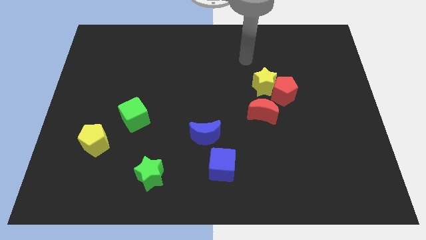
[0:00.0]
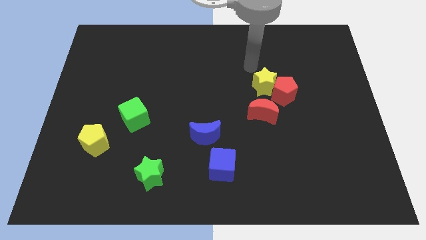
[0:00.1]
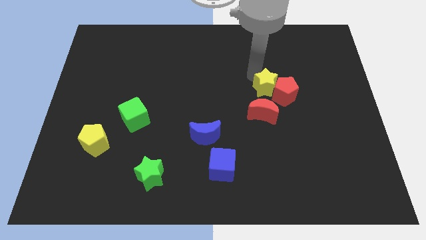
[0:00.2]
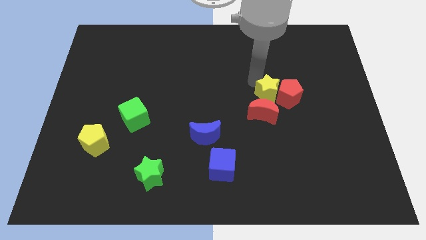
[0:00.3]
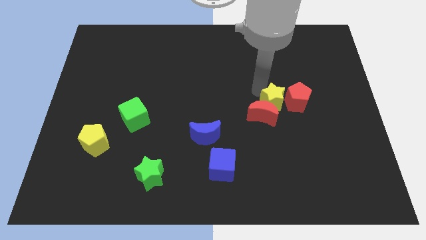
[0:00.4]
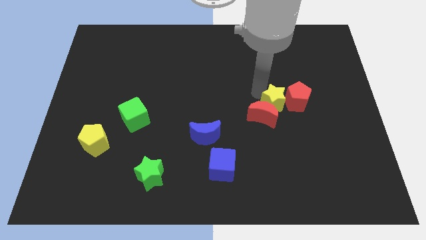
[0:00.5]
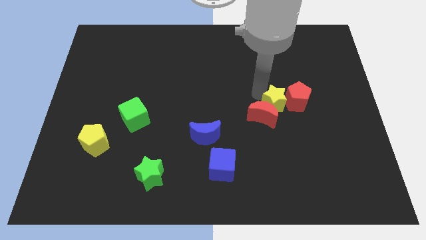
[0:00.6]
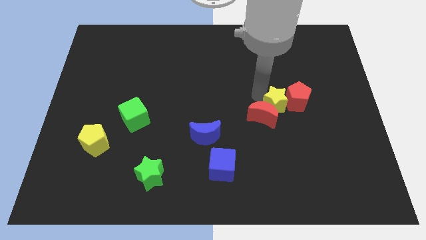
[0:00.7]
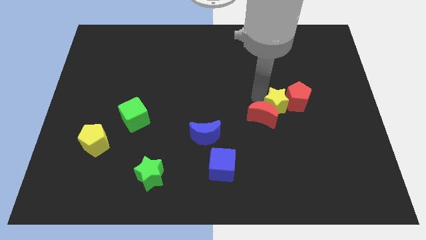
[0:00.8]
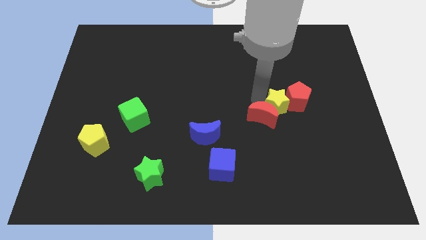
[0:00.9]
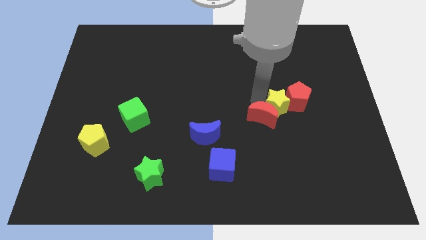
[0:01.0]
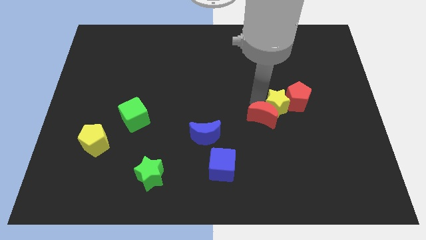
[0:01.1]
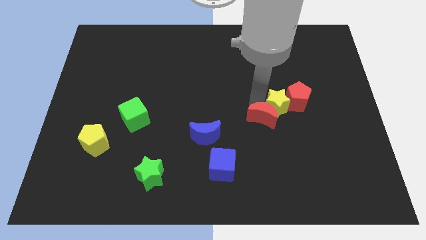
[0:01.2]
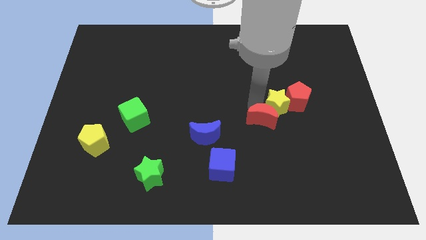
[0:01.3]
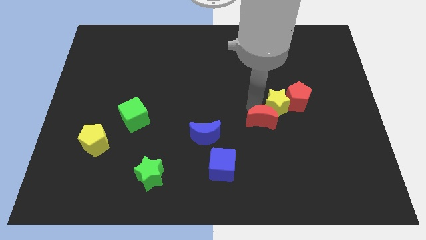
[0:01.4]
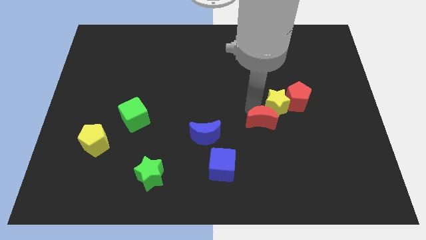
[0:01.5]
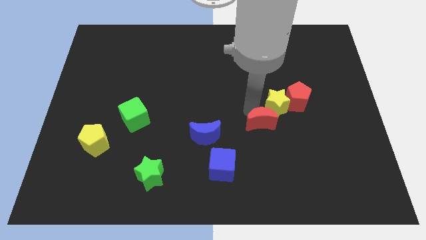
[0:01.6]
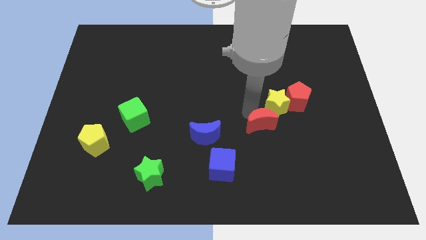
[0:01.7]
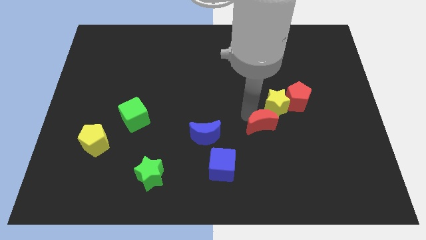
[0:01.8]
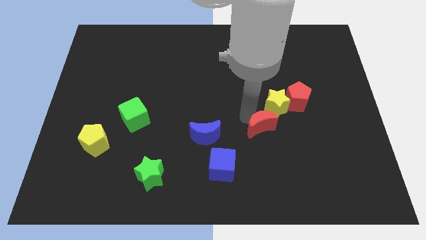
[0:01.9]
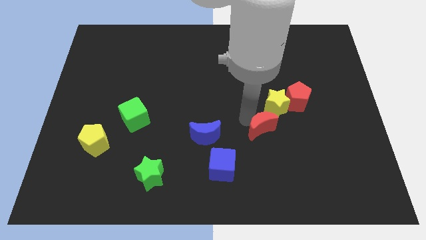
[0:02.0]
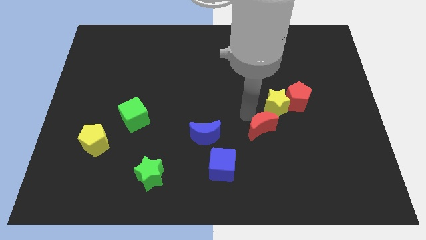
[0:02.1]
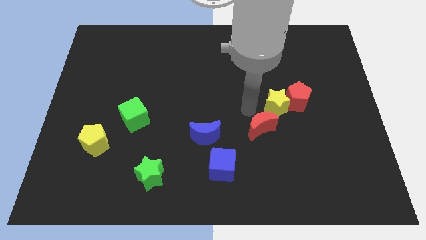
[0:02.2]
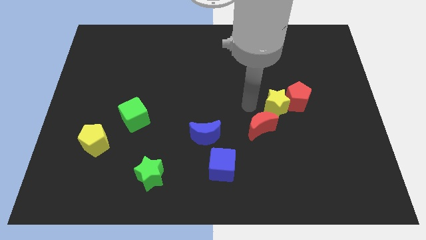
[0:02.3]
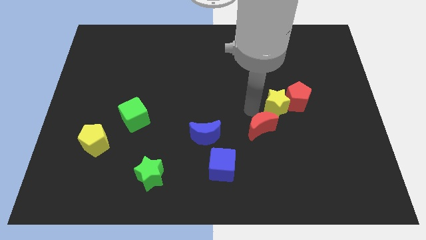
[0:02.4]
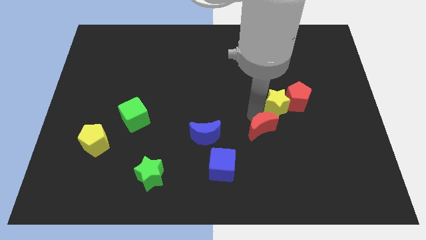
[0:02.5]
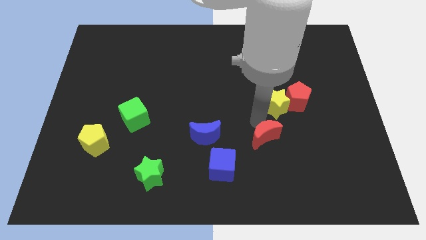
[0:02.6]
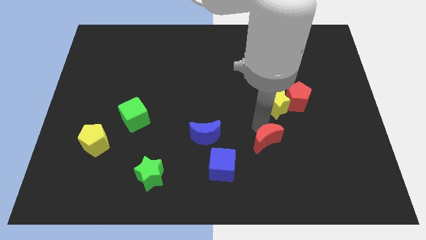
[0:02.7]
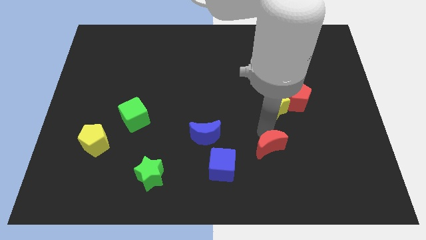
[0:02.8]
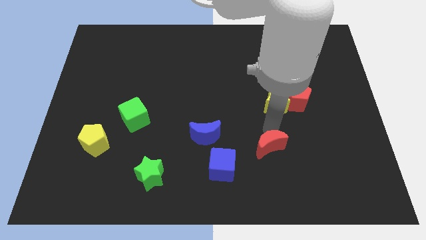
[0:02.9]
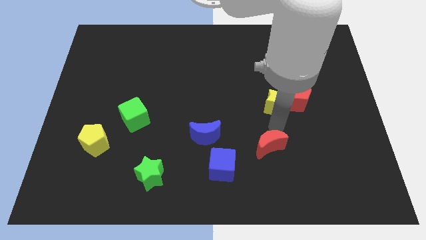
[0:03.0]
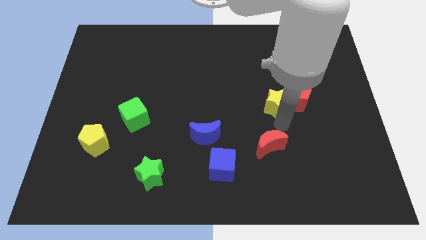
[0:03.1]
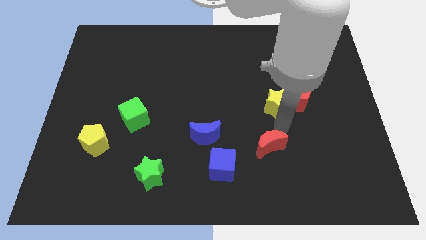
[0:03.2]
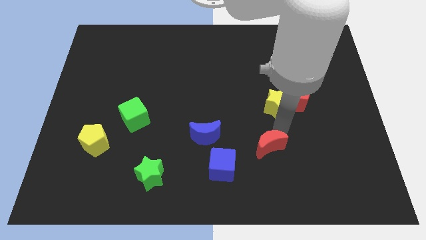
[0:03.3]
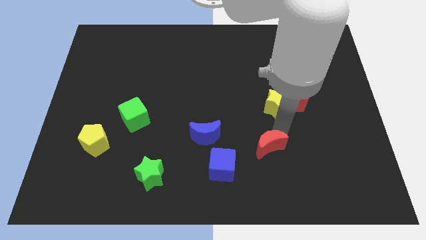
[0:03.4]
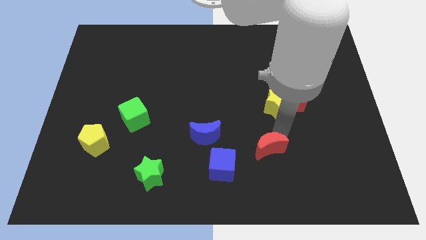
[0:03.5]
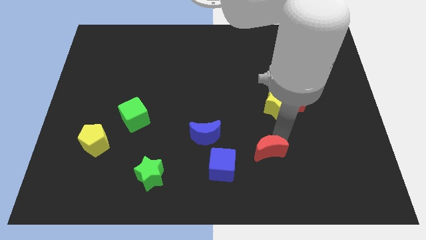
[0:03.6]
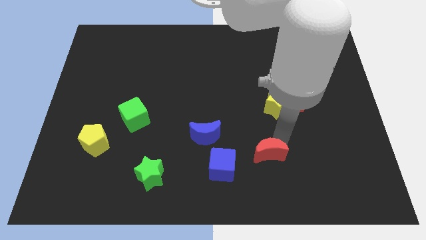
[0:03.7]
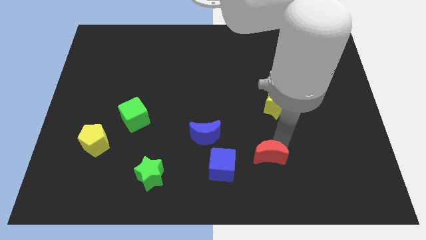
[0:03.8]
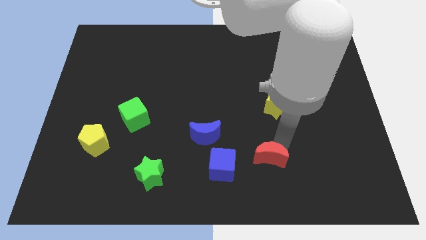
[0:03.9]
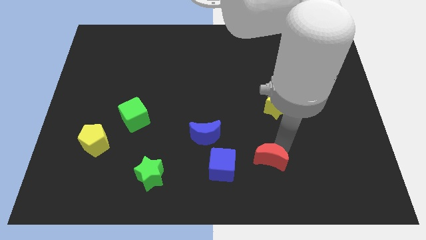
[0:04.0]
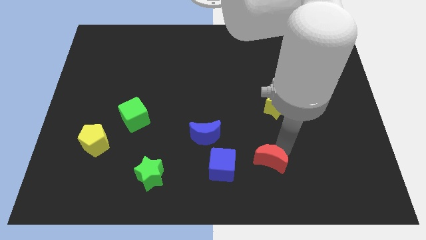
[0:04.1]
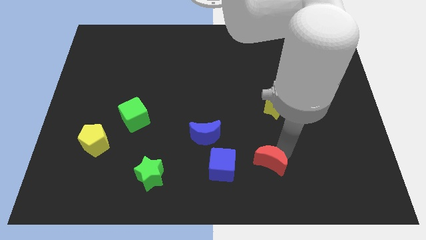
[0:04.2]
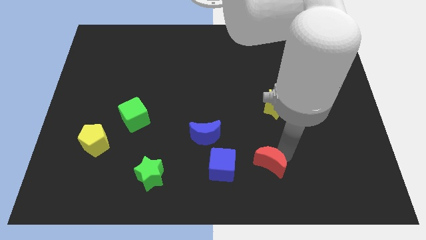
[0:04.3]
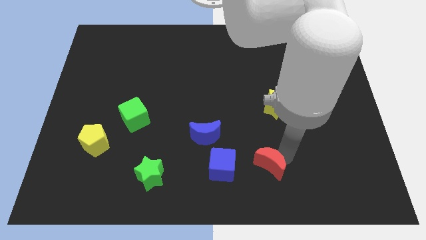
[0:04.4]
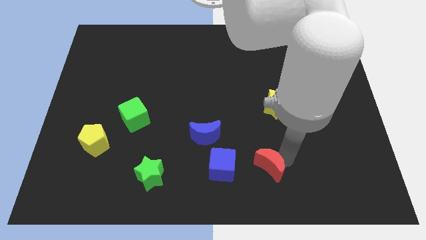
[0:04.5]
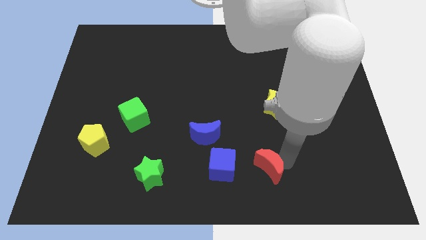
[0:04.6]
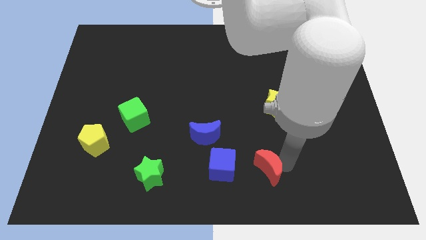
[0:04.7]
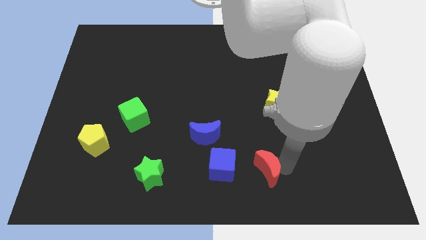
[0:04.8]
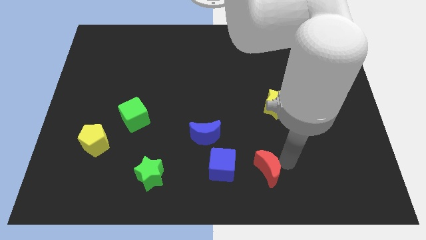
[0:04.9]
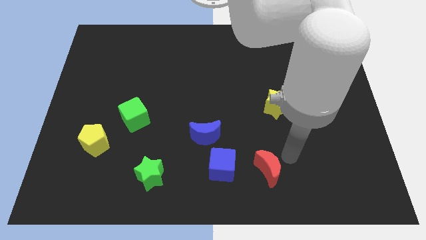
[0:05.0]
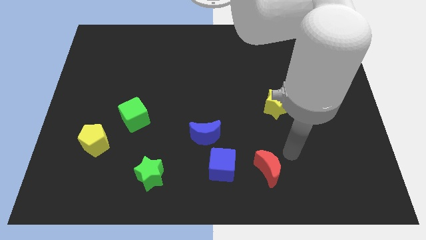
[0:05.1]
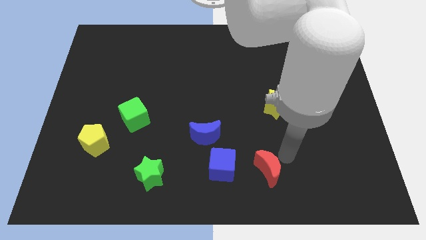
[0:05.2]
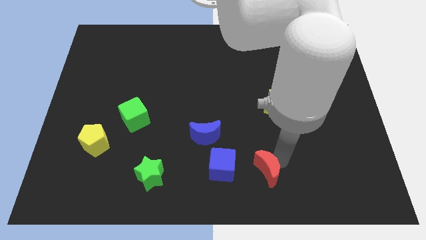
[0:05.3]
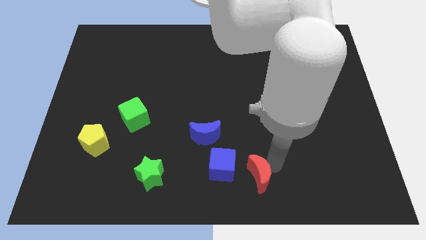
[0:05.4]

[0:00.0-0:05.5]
move the red moon to the bottom side

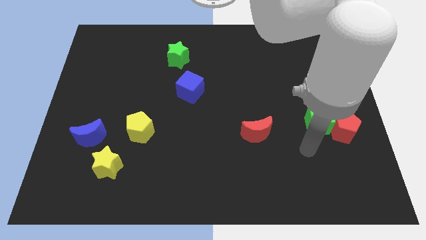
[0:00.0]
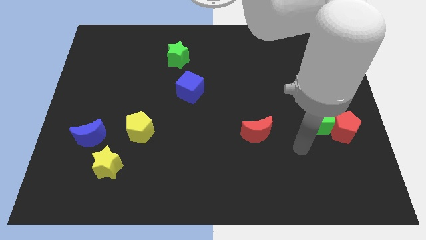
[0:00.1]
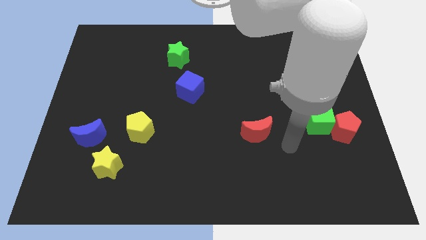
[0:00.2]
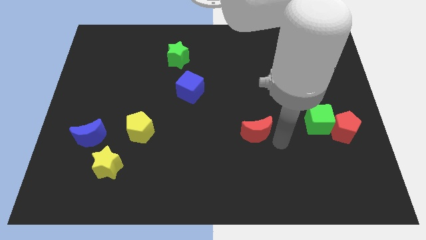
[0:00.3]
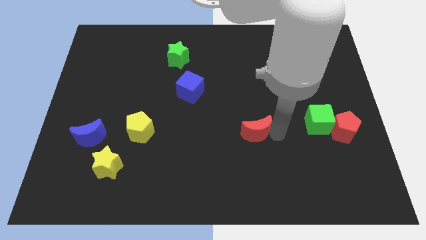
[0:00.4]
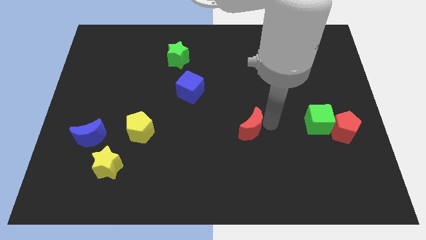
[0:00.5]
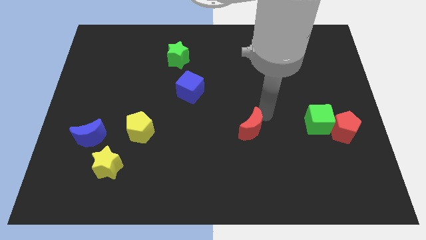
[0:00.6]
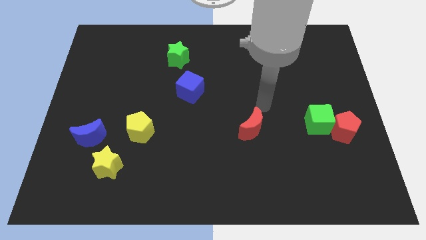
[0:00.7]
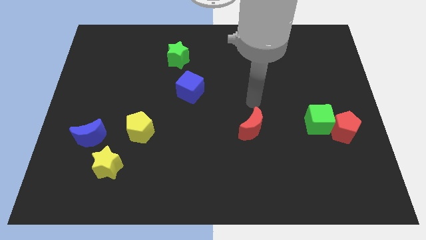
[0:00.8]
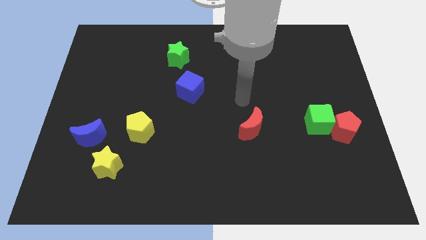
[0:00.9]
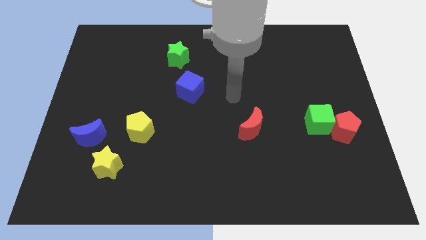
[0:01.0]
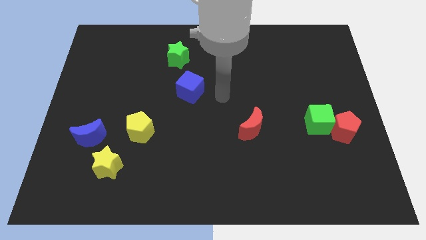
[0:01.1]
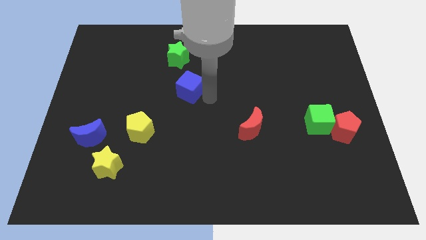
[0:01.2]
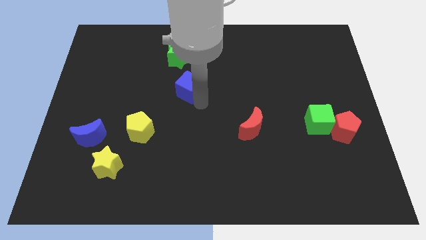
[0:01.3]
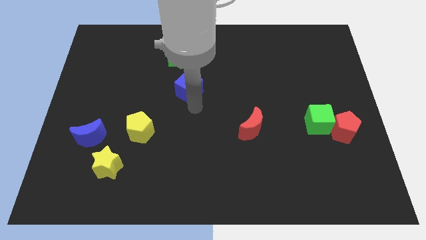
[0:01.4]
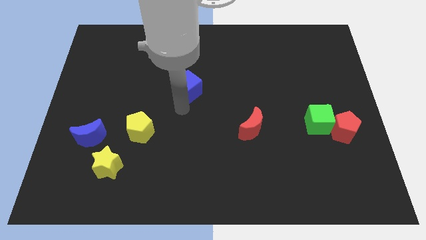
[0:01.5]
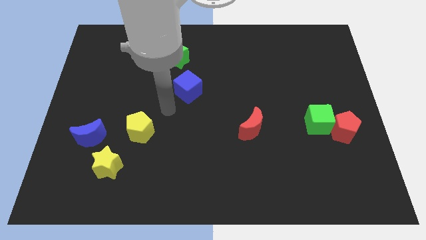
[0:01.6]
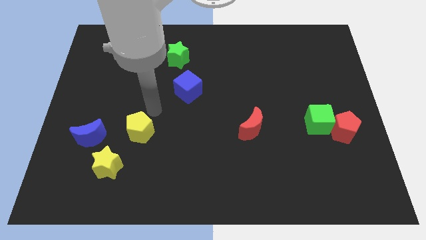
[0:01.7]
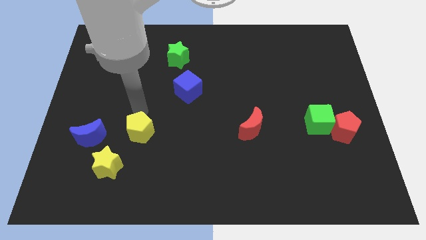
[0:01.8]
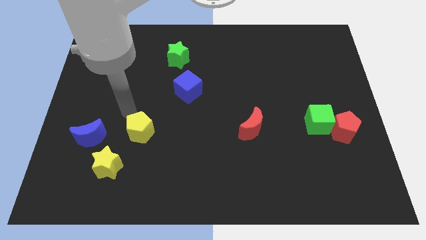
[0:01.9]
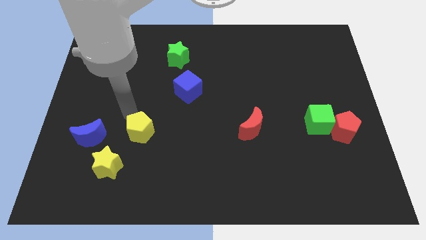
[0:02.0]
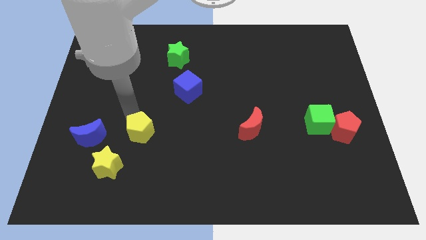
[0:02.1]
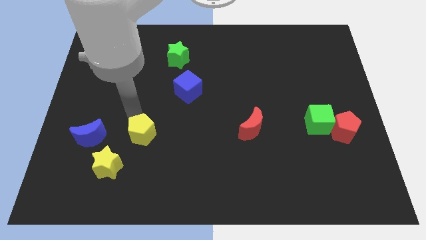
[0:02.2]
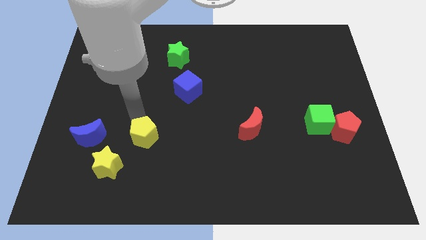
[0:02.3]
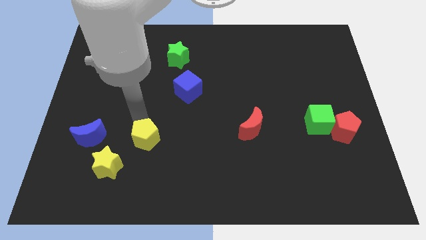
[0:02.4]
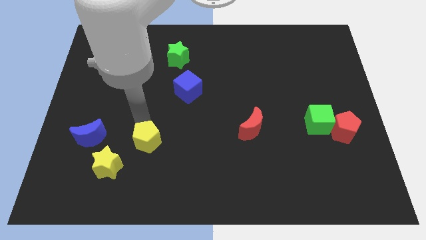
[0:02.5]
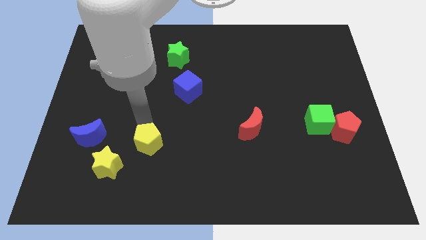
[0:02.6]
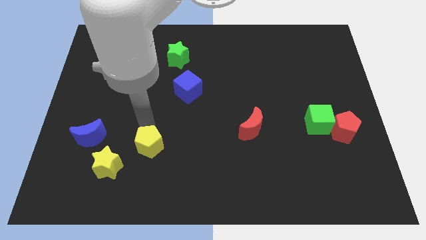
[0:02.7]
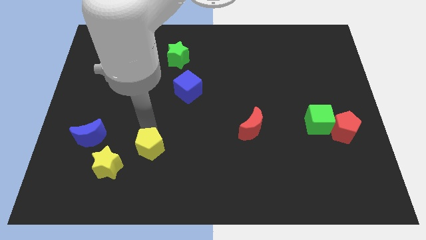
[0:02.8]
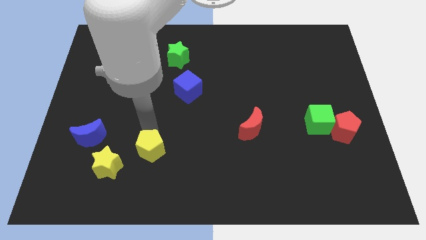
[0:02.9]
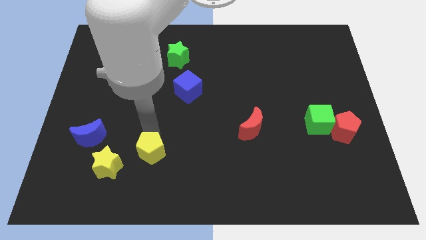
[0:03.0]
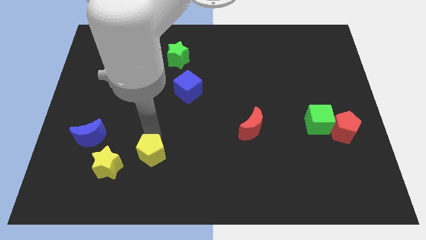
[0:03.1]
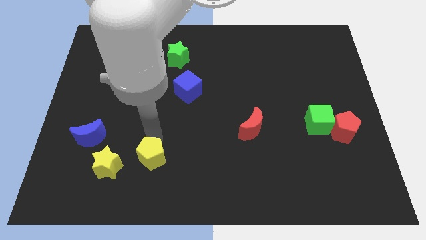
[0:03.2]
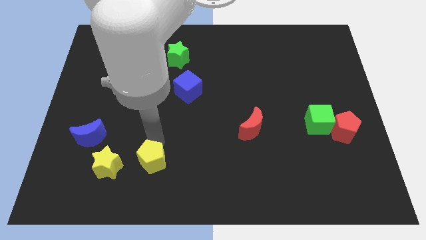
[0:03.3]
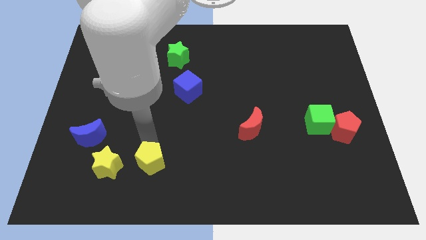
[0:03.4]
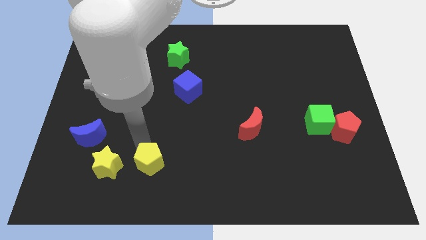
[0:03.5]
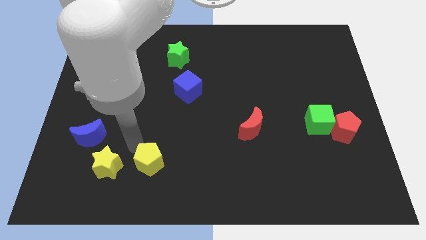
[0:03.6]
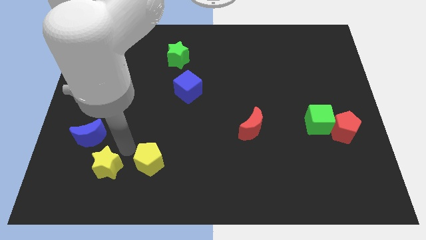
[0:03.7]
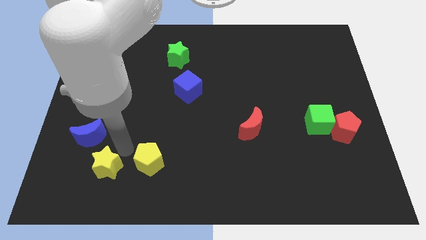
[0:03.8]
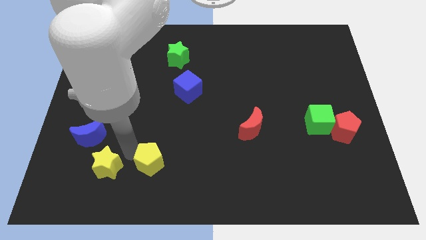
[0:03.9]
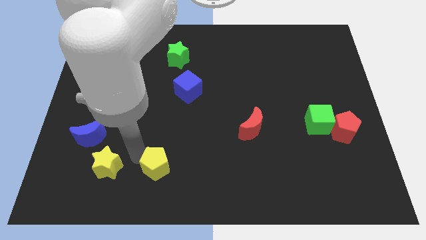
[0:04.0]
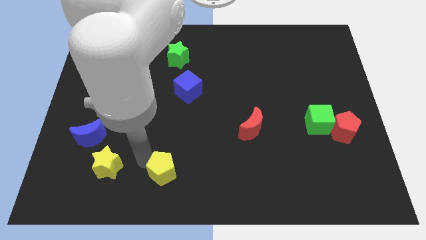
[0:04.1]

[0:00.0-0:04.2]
push the yellow pentagon to the bottom side
